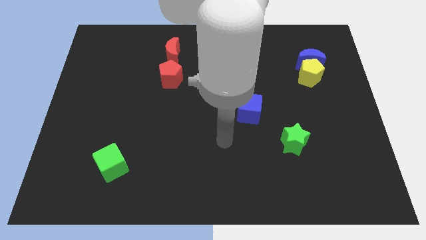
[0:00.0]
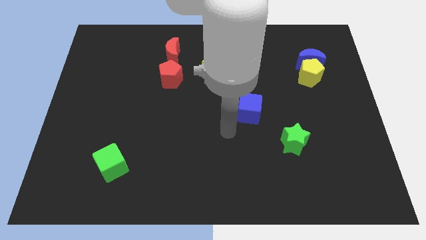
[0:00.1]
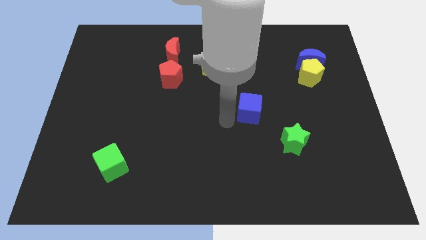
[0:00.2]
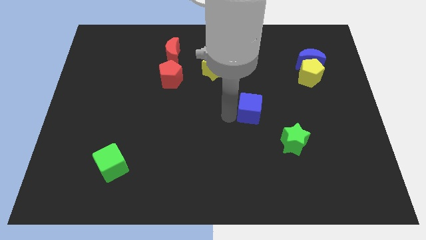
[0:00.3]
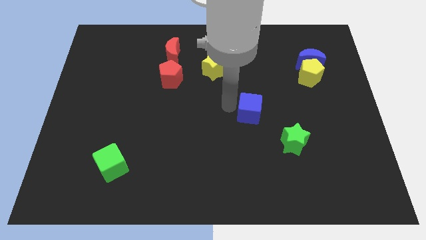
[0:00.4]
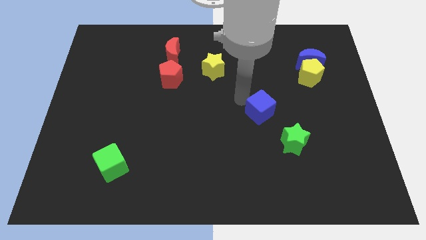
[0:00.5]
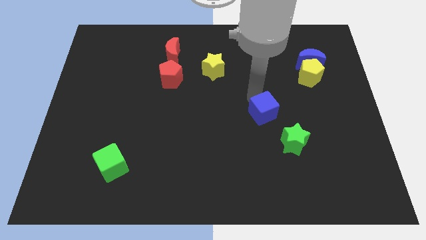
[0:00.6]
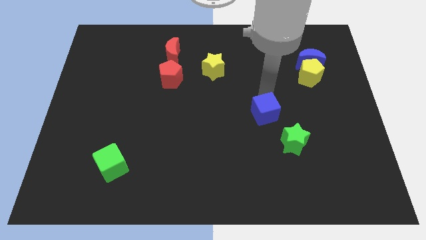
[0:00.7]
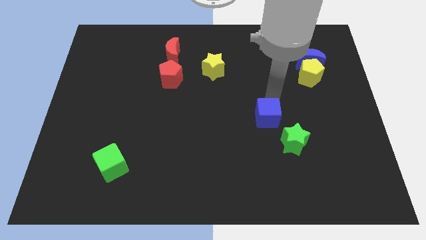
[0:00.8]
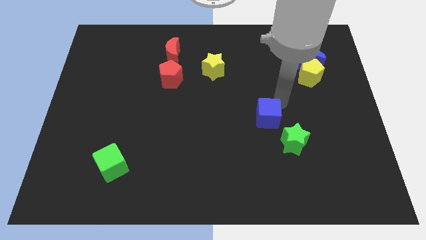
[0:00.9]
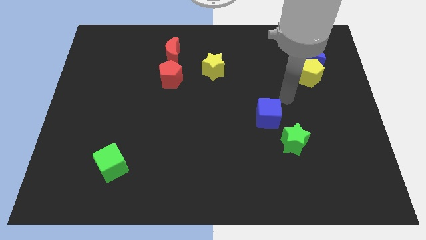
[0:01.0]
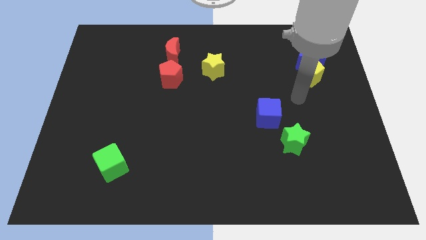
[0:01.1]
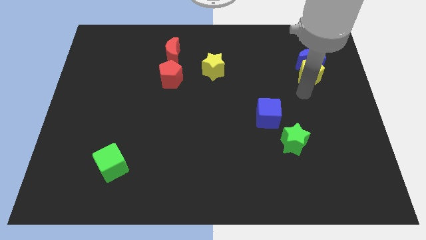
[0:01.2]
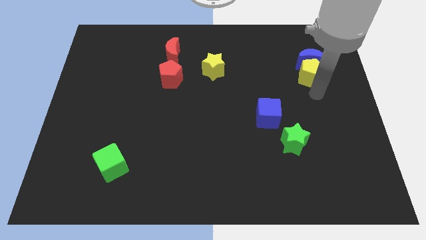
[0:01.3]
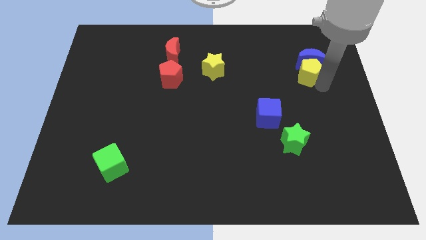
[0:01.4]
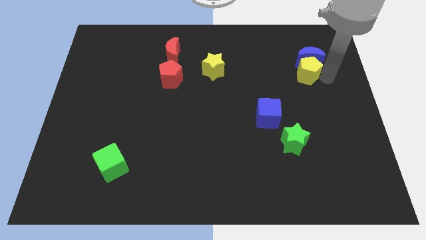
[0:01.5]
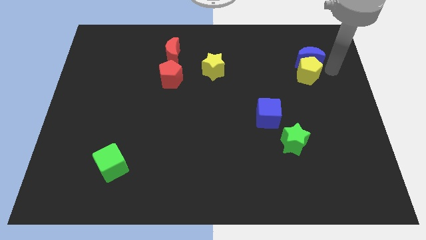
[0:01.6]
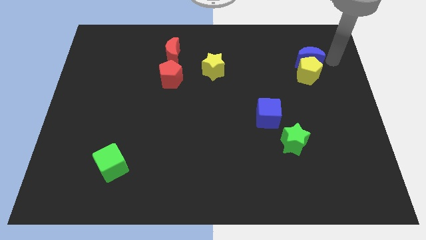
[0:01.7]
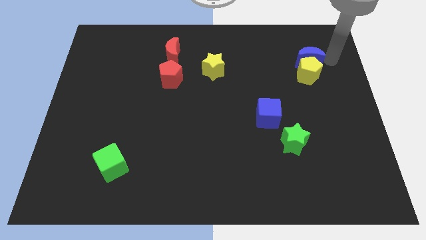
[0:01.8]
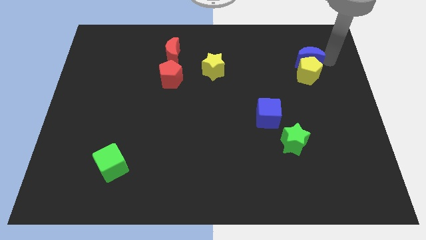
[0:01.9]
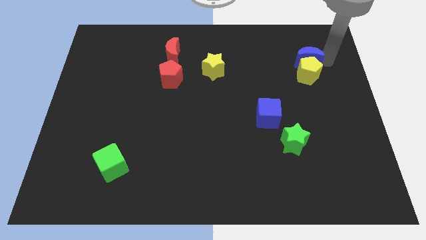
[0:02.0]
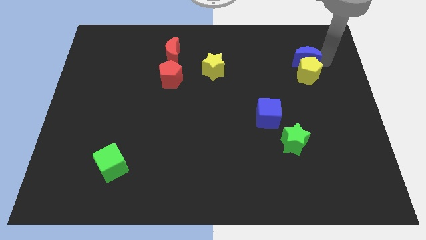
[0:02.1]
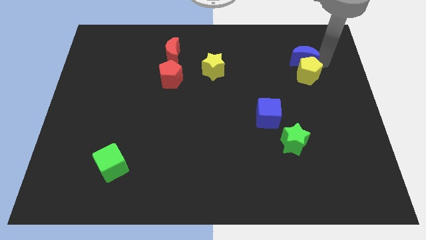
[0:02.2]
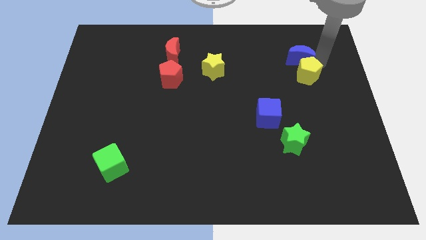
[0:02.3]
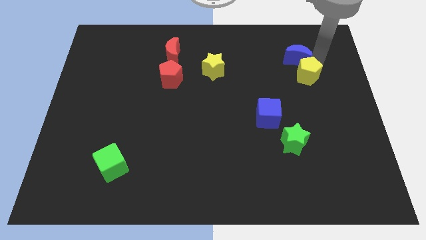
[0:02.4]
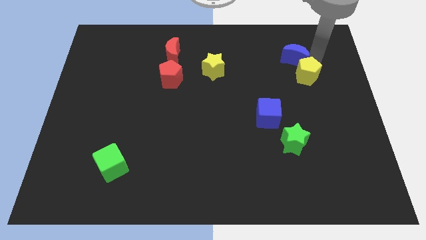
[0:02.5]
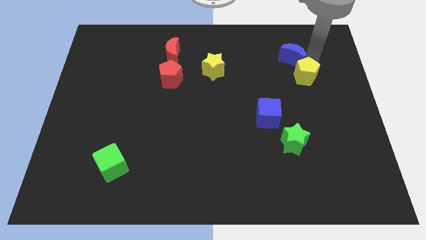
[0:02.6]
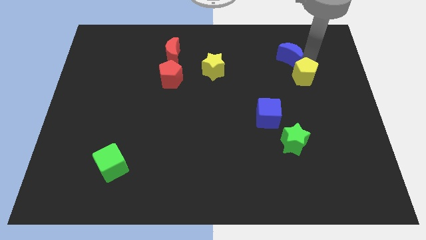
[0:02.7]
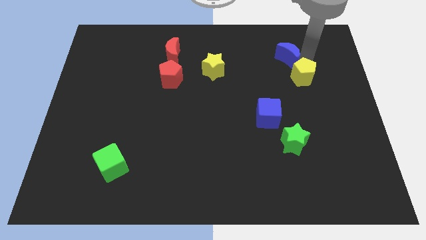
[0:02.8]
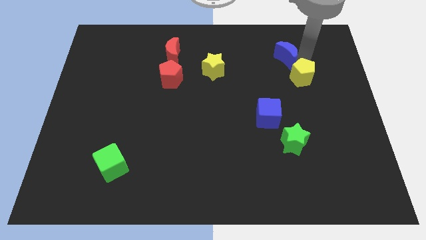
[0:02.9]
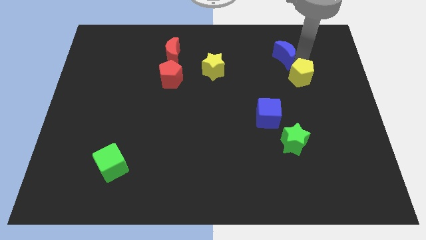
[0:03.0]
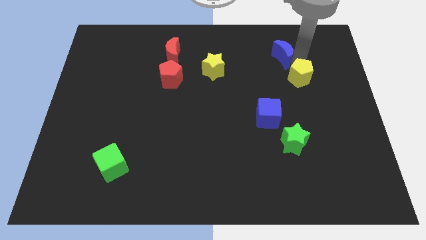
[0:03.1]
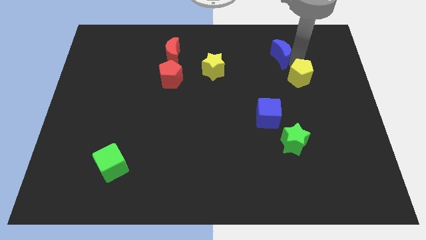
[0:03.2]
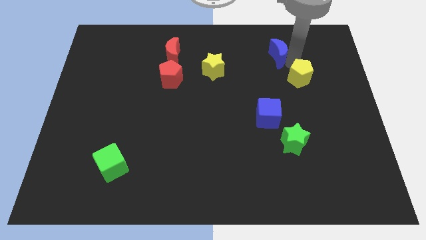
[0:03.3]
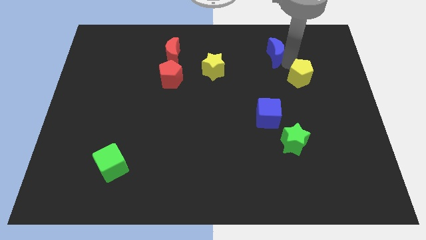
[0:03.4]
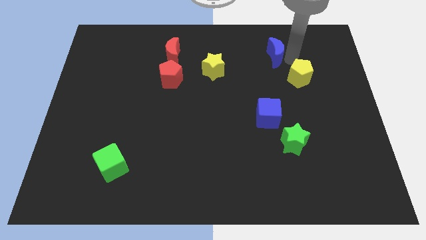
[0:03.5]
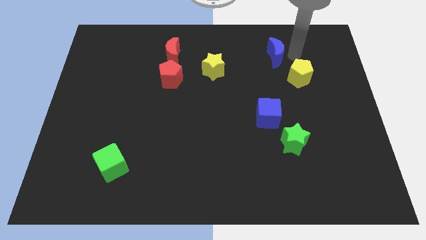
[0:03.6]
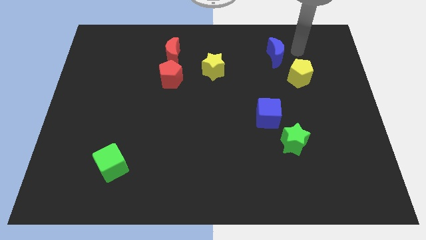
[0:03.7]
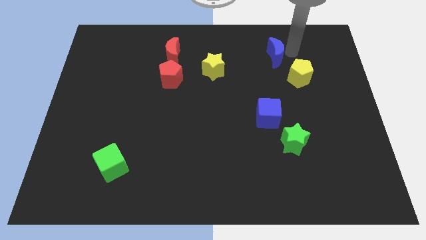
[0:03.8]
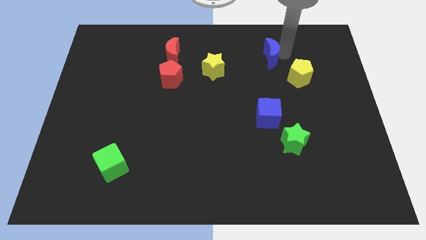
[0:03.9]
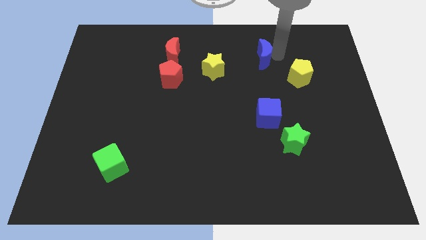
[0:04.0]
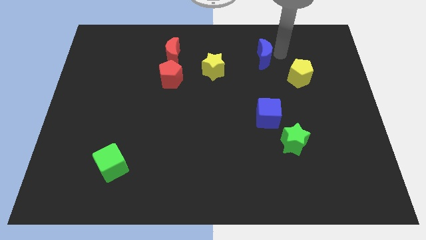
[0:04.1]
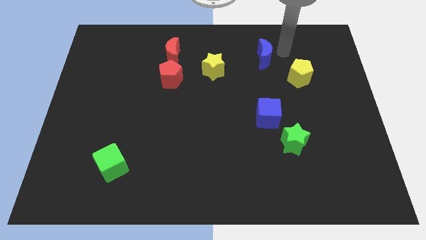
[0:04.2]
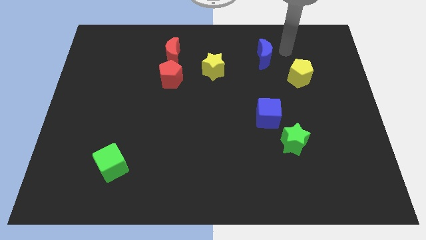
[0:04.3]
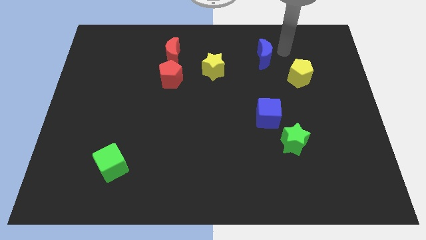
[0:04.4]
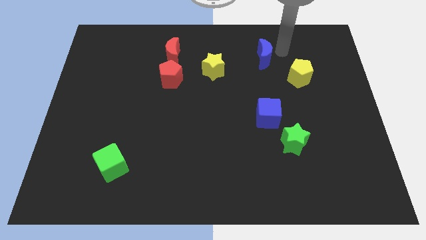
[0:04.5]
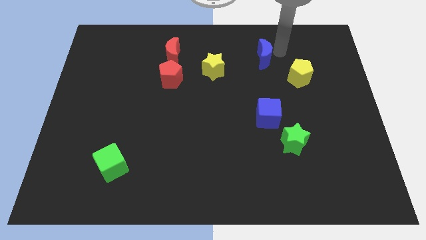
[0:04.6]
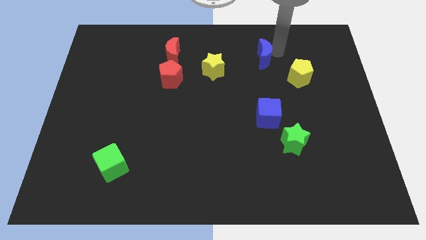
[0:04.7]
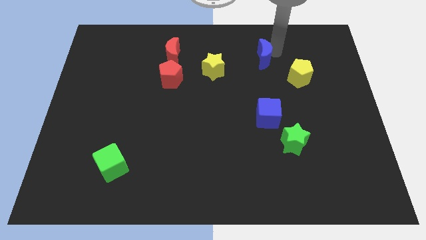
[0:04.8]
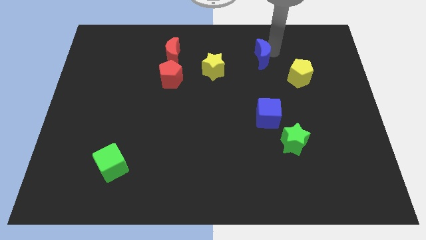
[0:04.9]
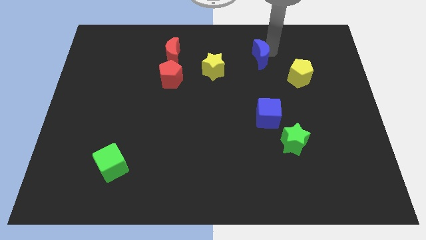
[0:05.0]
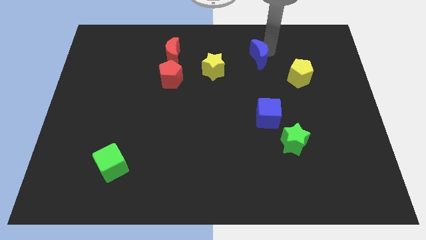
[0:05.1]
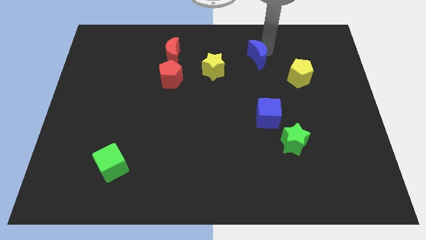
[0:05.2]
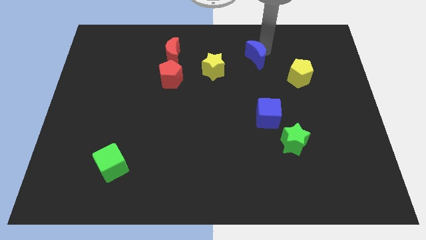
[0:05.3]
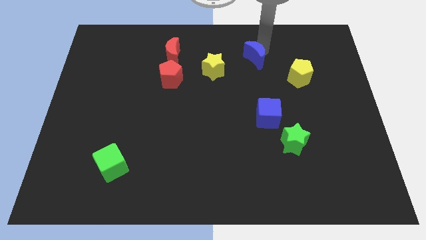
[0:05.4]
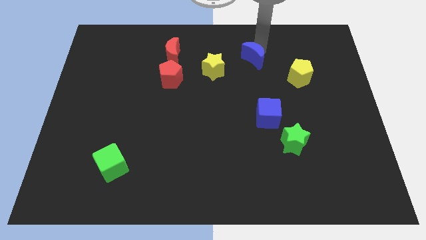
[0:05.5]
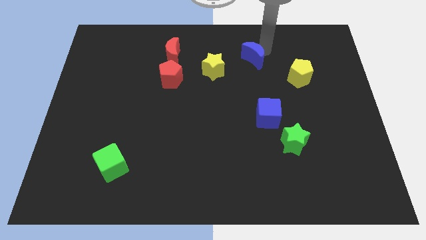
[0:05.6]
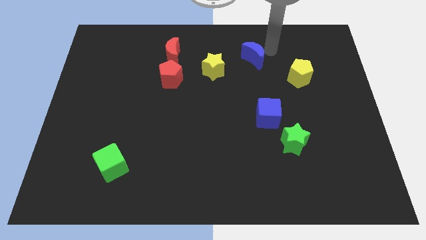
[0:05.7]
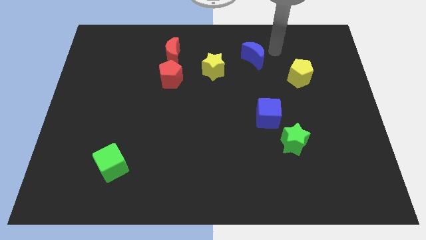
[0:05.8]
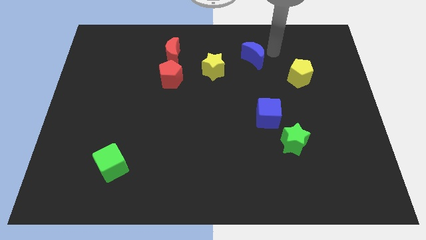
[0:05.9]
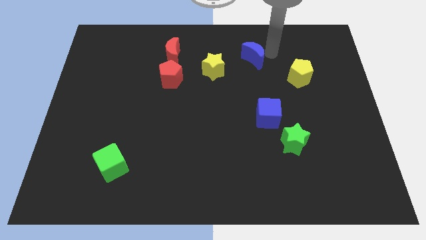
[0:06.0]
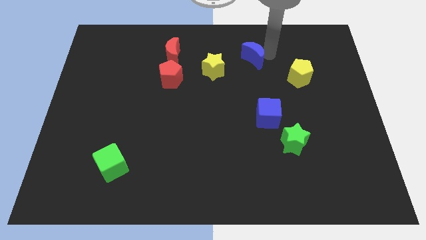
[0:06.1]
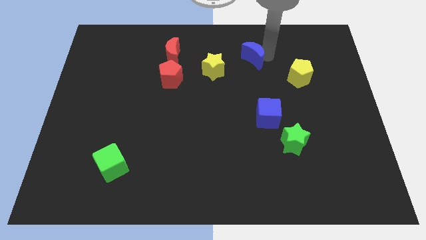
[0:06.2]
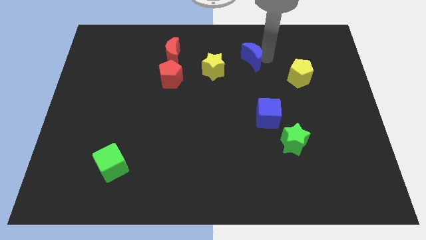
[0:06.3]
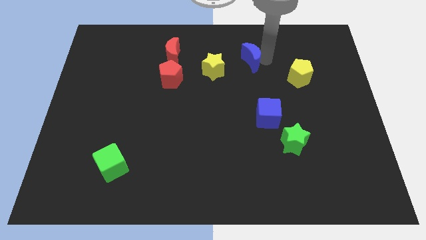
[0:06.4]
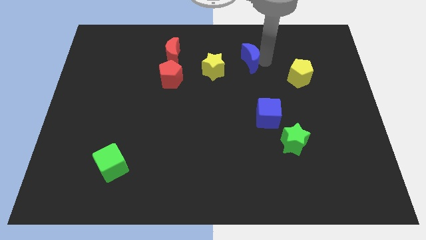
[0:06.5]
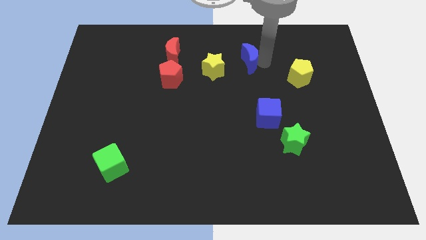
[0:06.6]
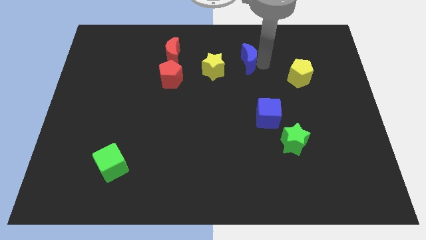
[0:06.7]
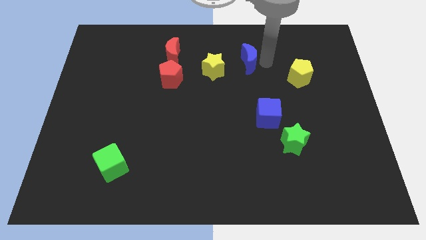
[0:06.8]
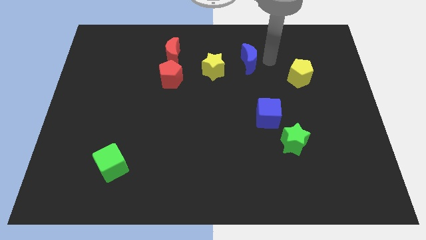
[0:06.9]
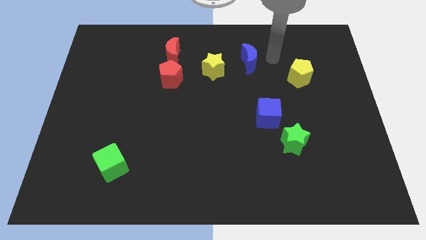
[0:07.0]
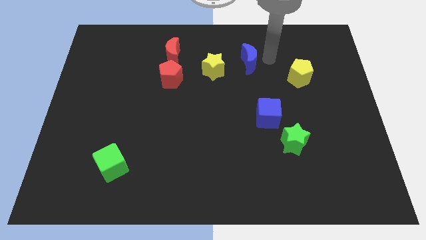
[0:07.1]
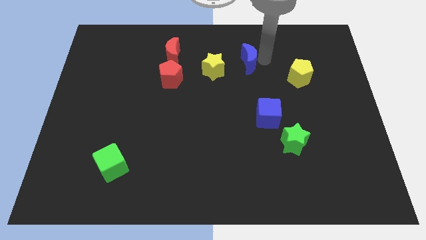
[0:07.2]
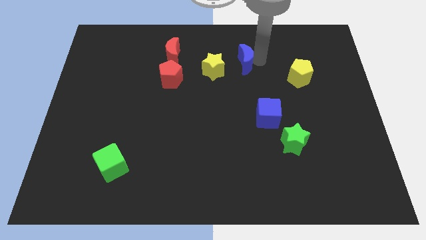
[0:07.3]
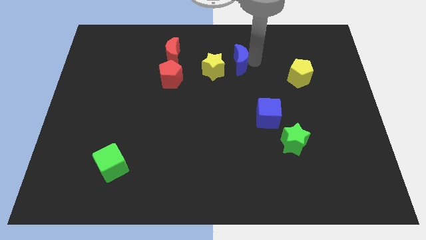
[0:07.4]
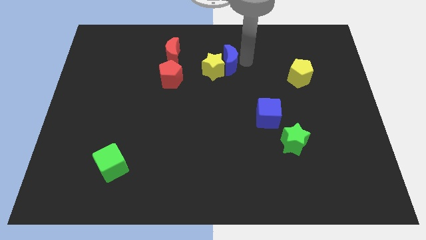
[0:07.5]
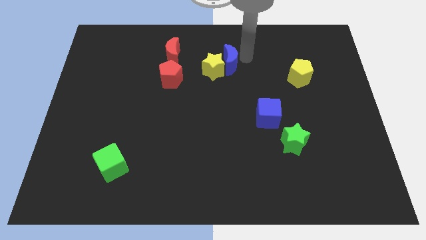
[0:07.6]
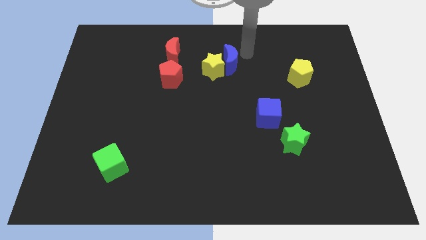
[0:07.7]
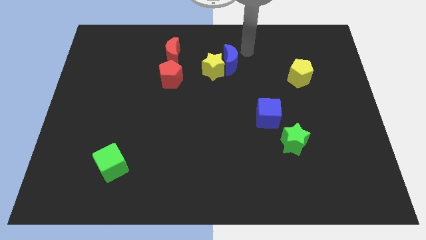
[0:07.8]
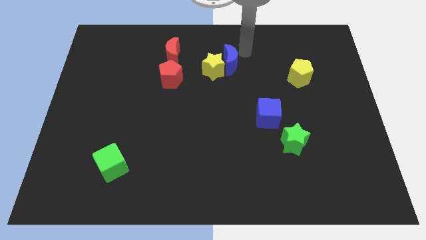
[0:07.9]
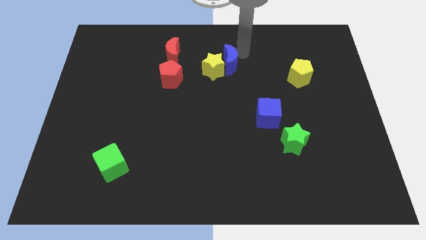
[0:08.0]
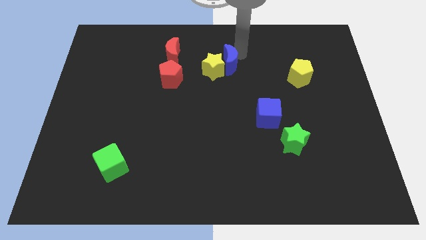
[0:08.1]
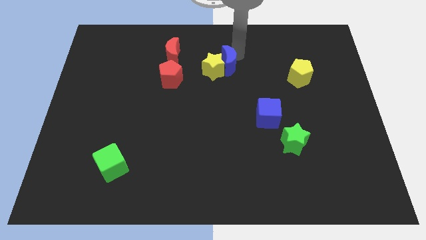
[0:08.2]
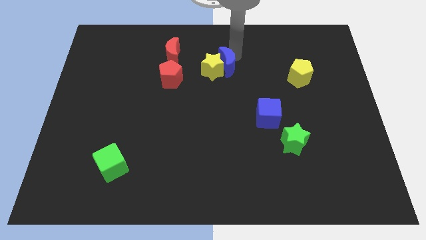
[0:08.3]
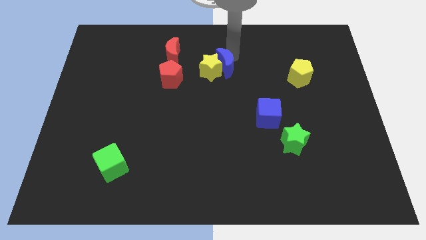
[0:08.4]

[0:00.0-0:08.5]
push the blue moon just right of the red pentagon
